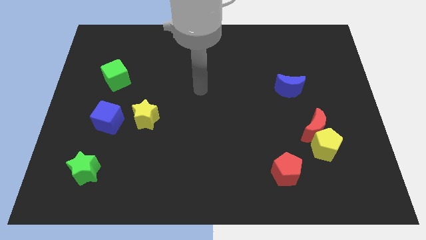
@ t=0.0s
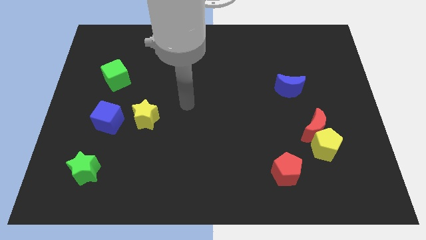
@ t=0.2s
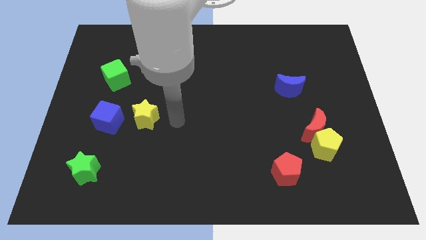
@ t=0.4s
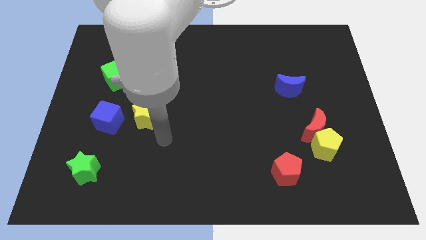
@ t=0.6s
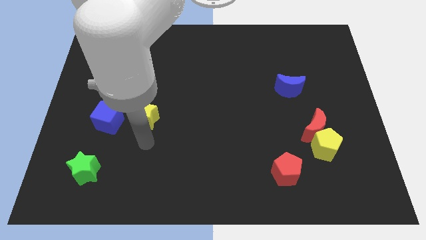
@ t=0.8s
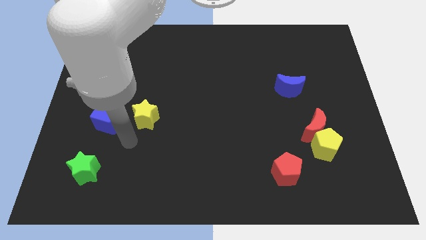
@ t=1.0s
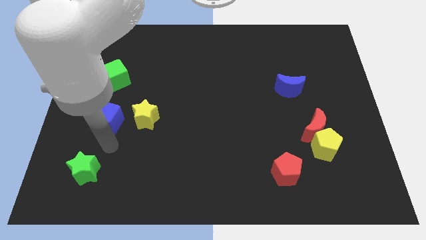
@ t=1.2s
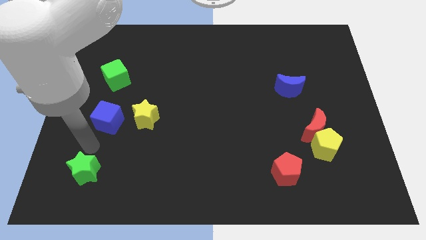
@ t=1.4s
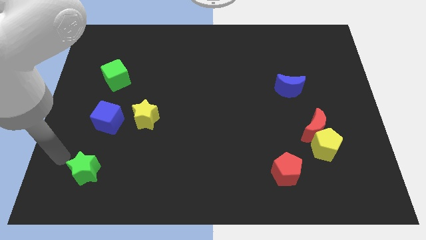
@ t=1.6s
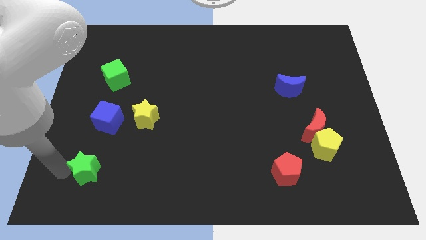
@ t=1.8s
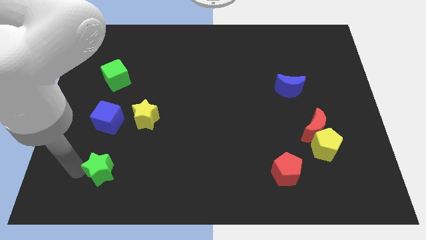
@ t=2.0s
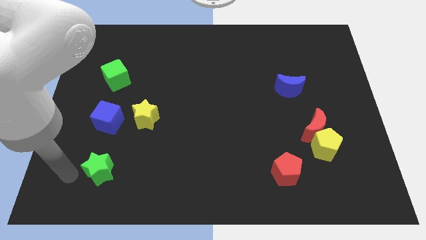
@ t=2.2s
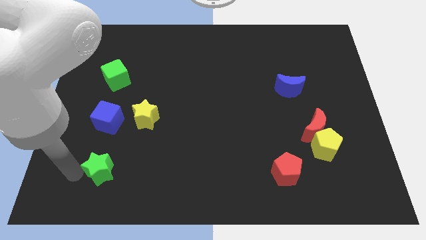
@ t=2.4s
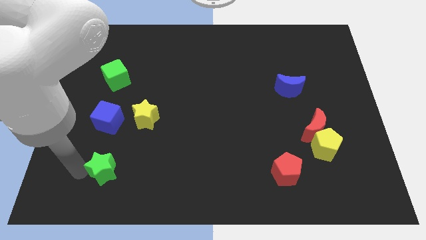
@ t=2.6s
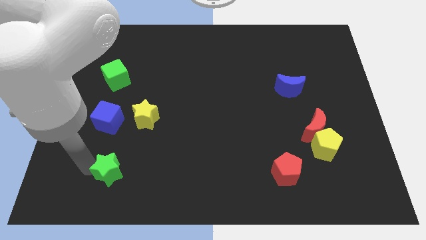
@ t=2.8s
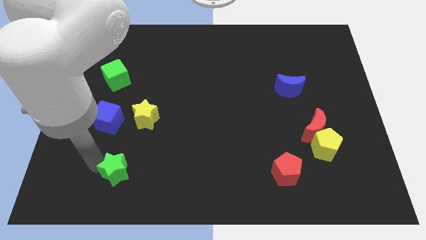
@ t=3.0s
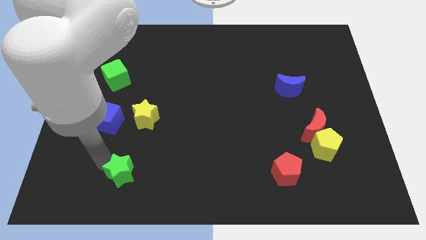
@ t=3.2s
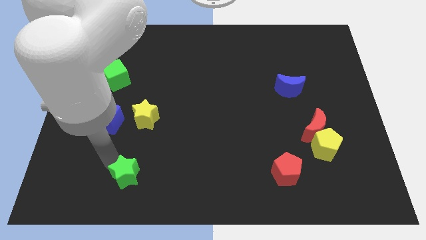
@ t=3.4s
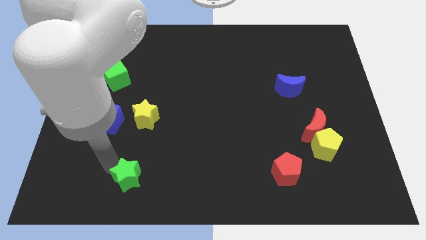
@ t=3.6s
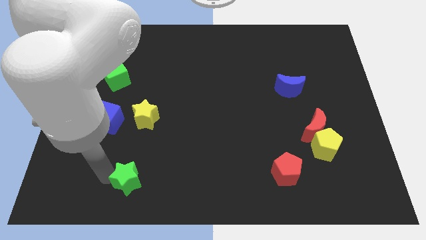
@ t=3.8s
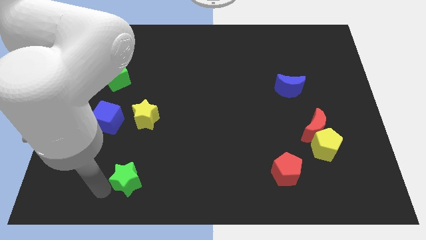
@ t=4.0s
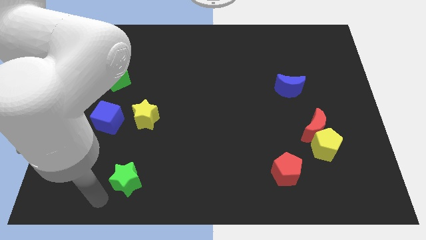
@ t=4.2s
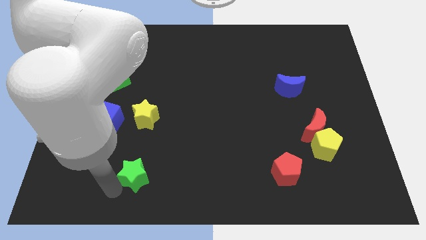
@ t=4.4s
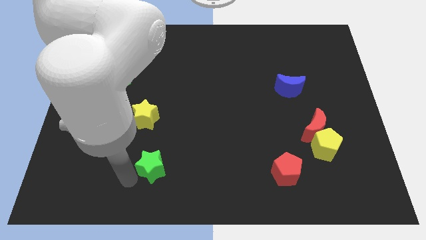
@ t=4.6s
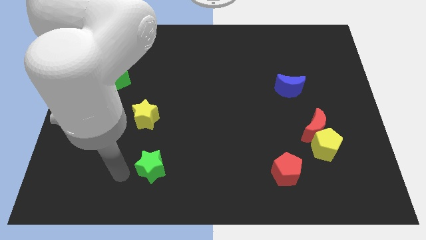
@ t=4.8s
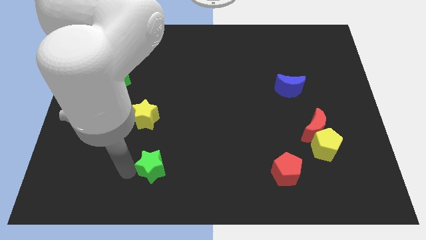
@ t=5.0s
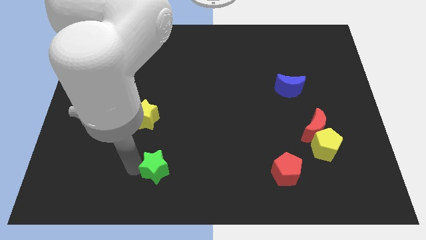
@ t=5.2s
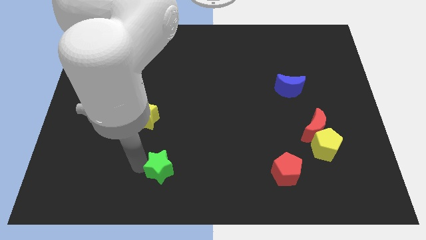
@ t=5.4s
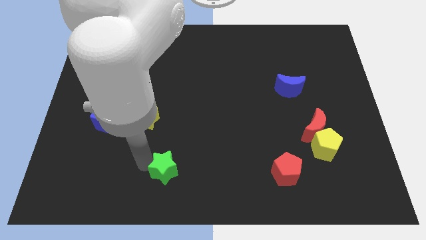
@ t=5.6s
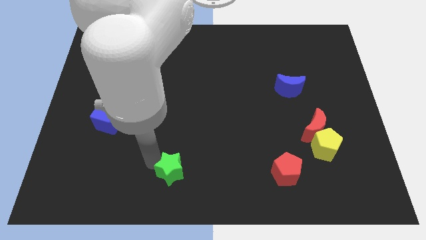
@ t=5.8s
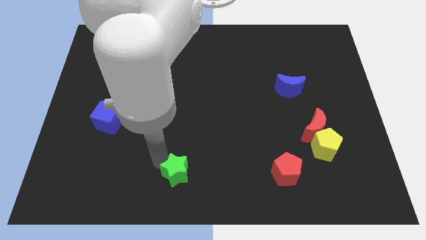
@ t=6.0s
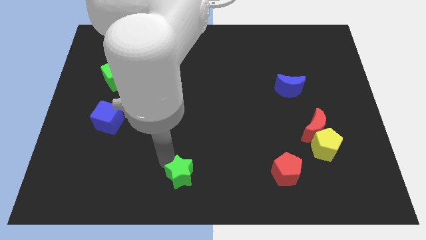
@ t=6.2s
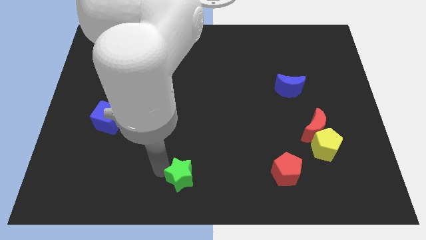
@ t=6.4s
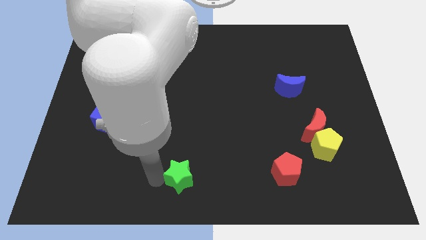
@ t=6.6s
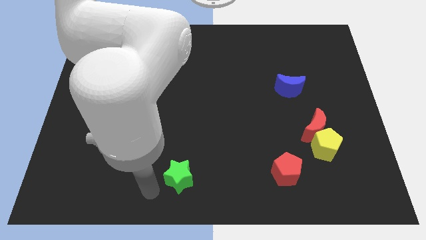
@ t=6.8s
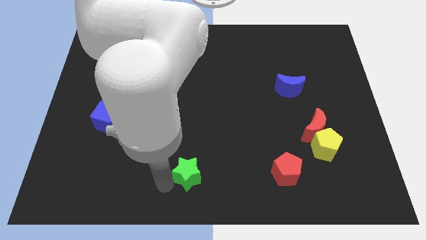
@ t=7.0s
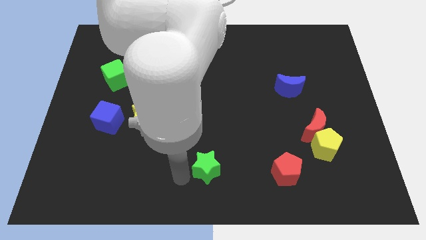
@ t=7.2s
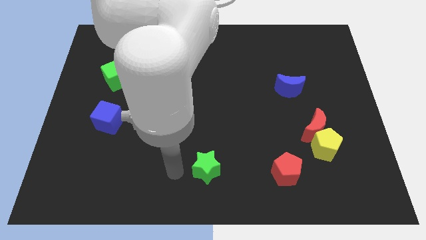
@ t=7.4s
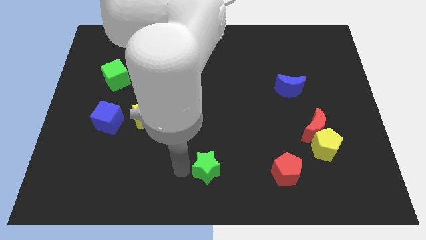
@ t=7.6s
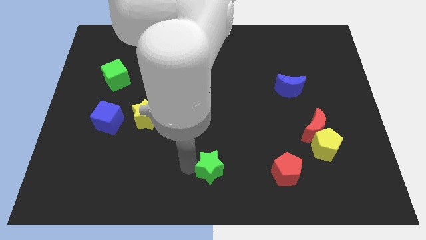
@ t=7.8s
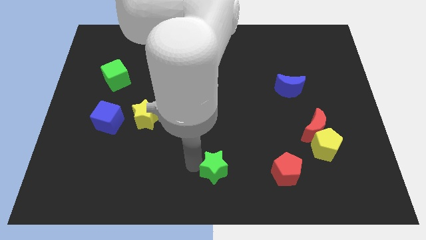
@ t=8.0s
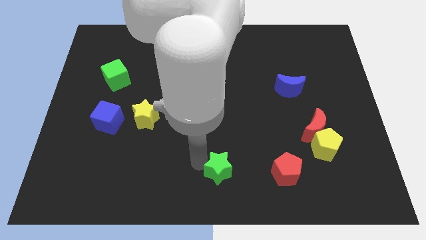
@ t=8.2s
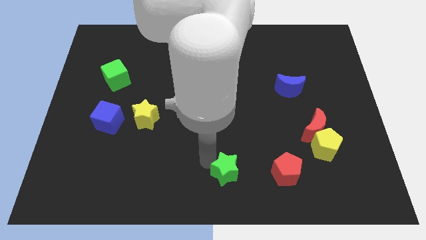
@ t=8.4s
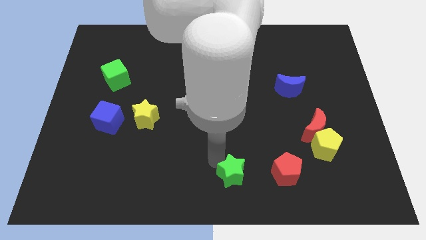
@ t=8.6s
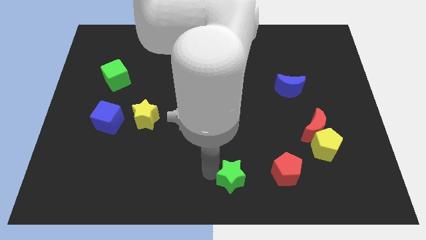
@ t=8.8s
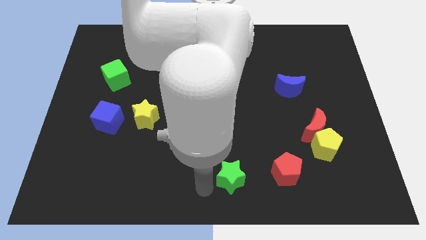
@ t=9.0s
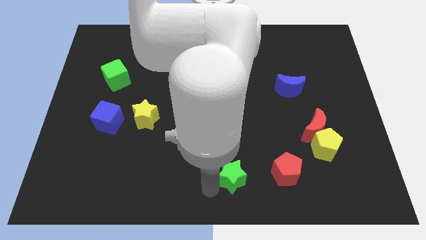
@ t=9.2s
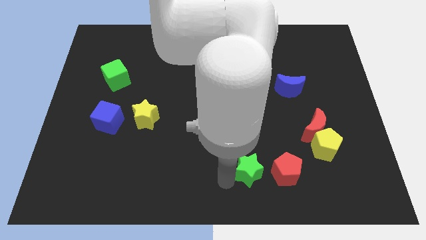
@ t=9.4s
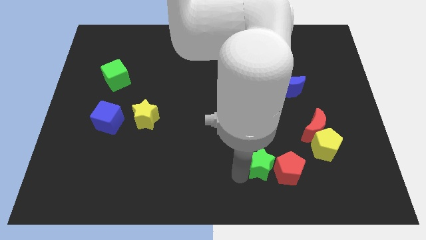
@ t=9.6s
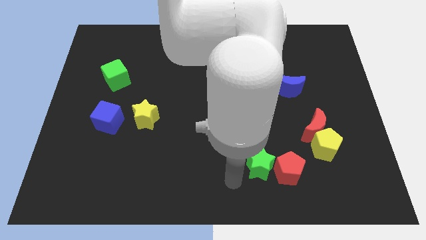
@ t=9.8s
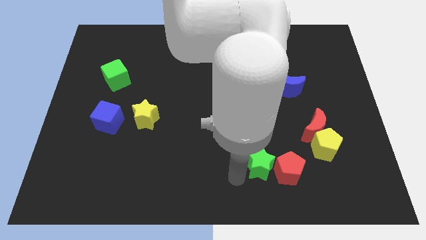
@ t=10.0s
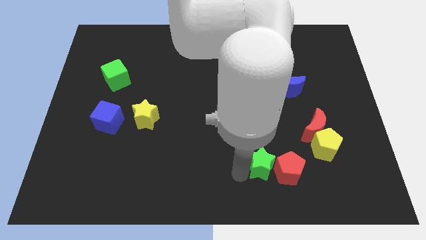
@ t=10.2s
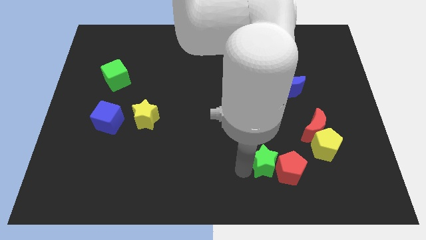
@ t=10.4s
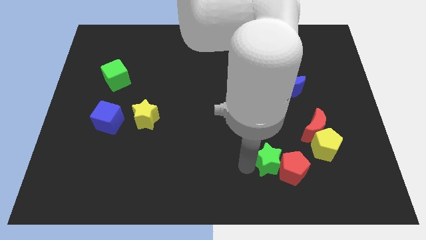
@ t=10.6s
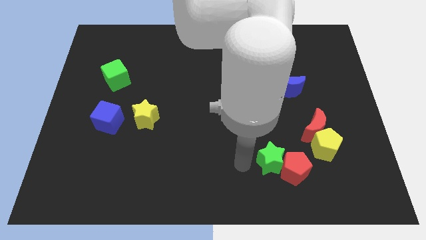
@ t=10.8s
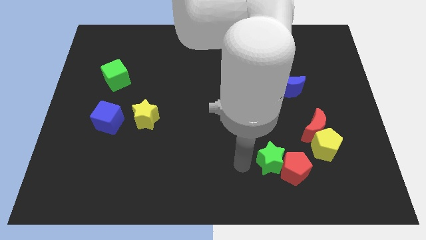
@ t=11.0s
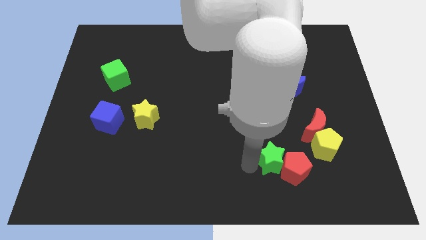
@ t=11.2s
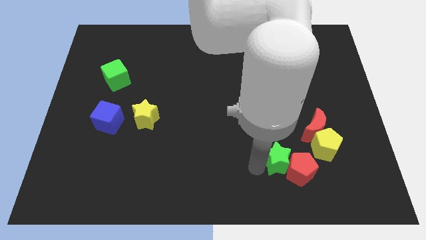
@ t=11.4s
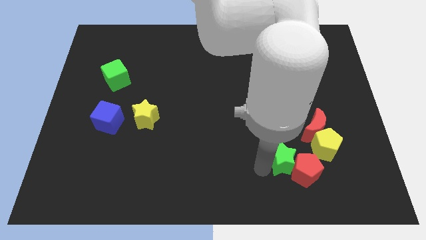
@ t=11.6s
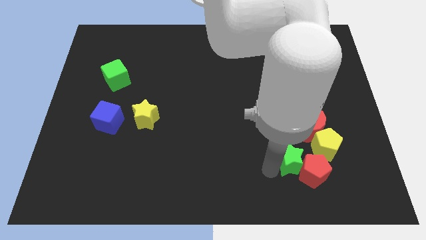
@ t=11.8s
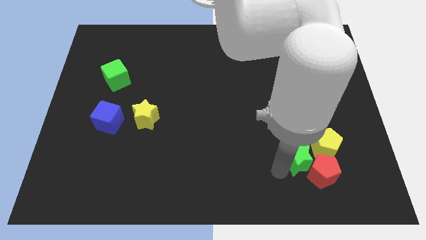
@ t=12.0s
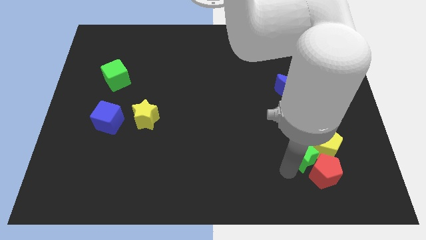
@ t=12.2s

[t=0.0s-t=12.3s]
move the green star towards the yellow pentagon

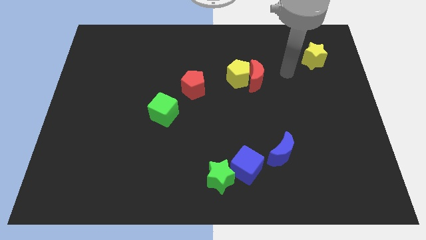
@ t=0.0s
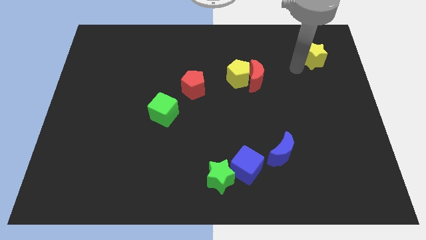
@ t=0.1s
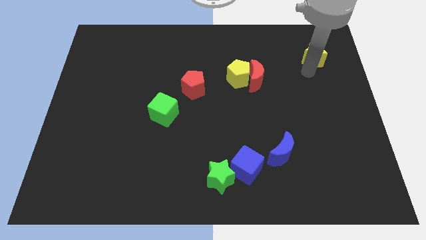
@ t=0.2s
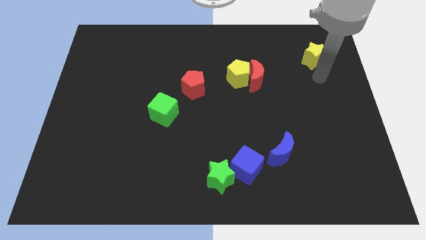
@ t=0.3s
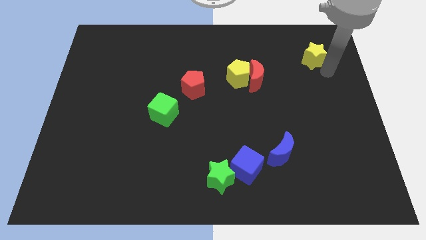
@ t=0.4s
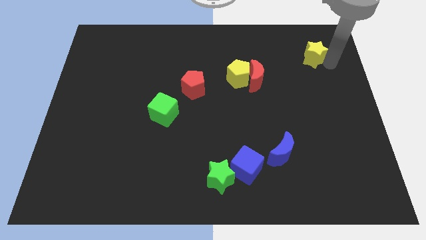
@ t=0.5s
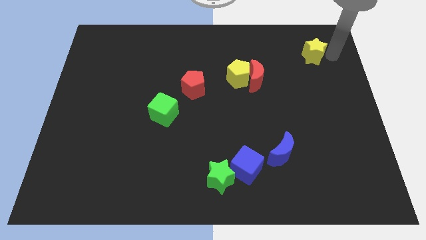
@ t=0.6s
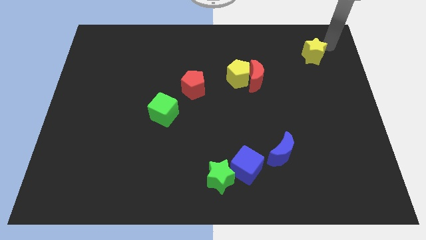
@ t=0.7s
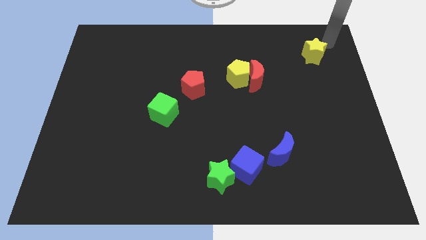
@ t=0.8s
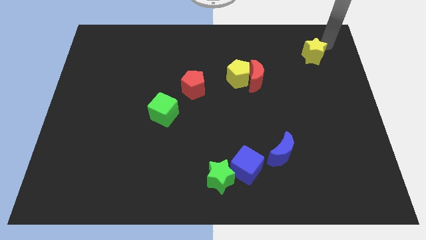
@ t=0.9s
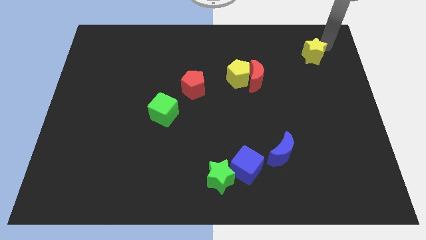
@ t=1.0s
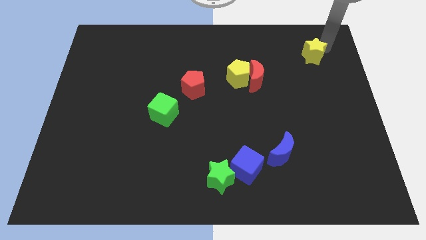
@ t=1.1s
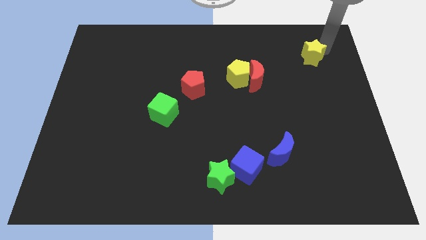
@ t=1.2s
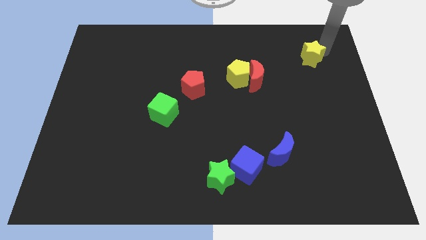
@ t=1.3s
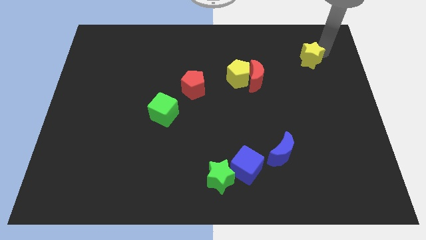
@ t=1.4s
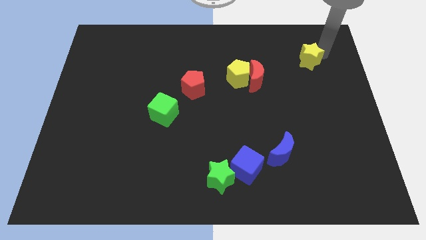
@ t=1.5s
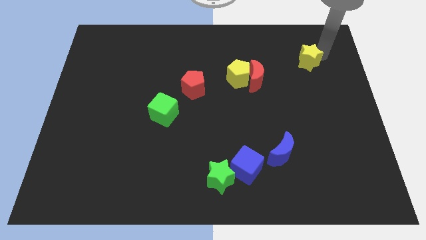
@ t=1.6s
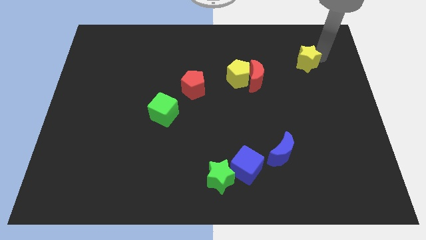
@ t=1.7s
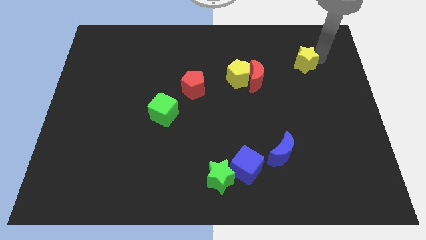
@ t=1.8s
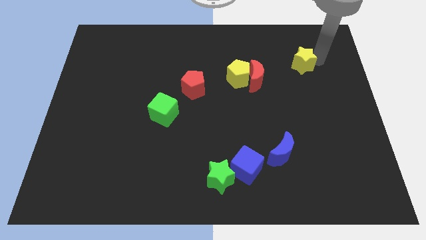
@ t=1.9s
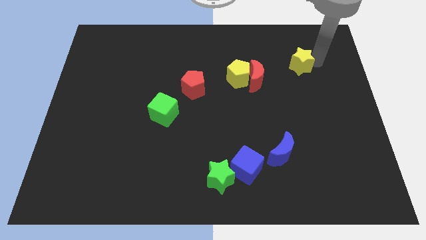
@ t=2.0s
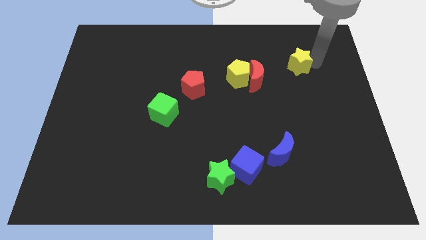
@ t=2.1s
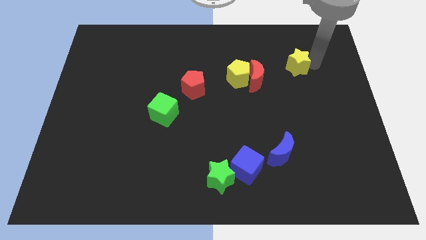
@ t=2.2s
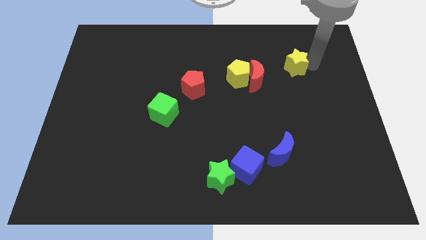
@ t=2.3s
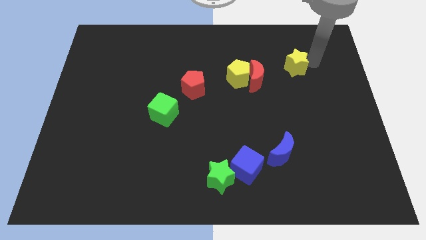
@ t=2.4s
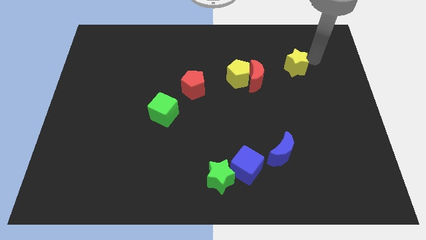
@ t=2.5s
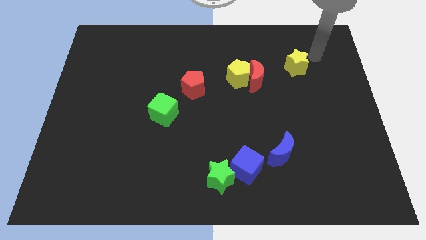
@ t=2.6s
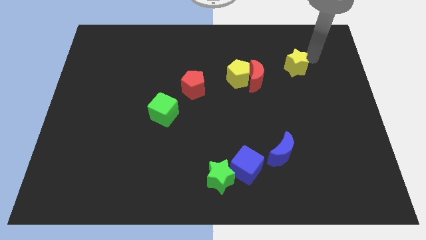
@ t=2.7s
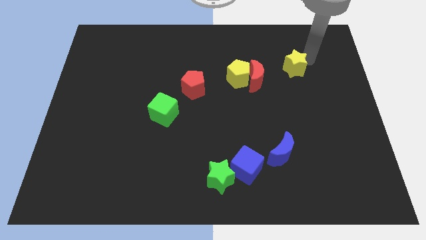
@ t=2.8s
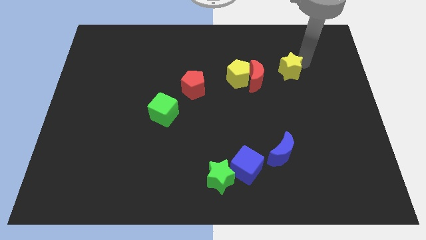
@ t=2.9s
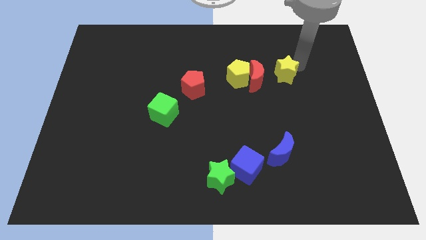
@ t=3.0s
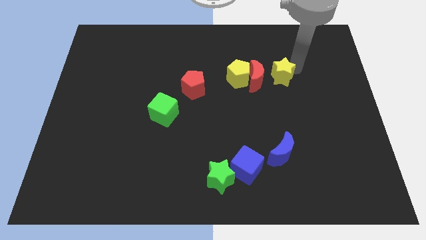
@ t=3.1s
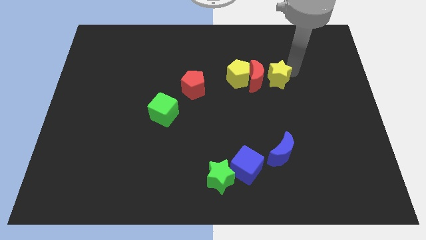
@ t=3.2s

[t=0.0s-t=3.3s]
put the yellow star next to the red moon
